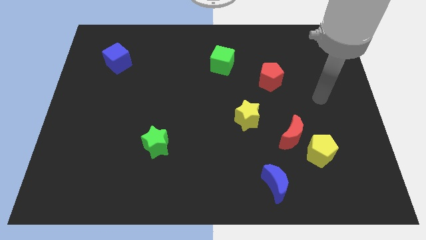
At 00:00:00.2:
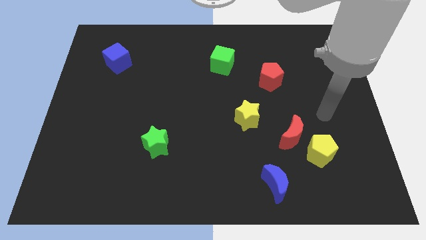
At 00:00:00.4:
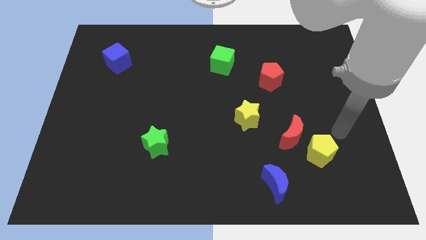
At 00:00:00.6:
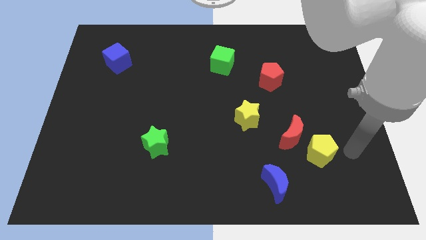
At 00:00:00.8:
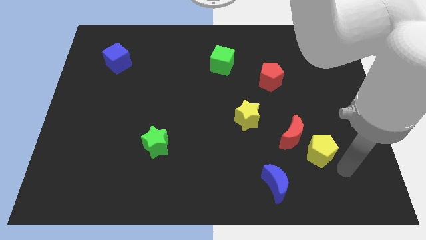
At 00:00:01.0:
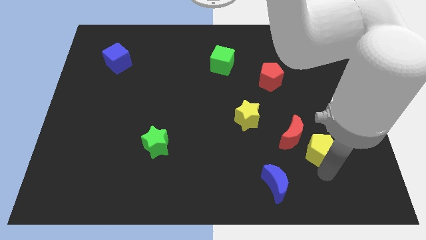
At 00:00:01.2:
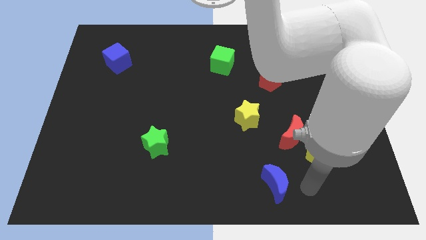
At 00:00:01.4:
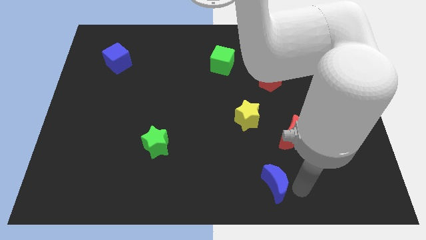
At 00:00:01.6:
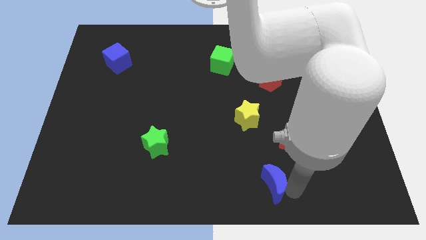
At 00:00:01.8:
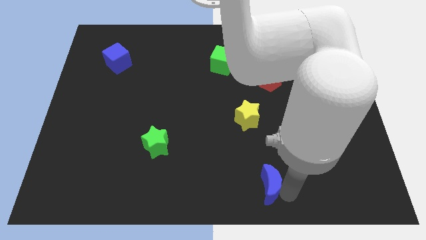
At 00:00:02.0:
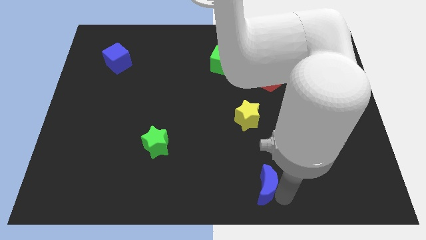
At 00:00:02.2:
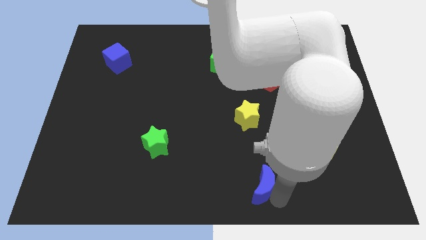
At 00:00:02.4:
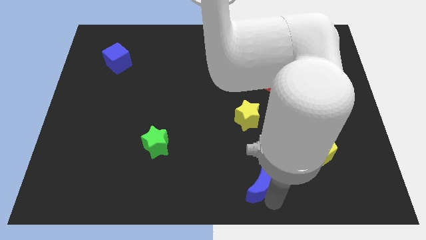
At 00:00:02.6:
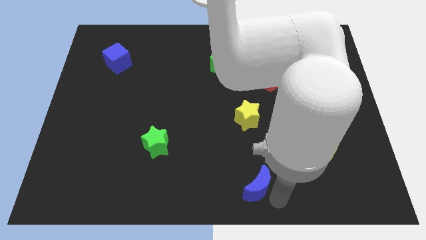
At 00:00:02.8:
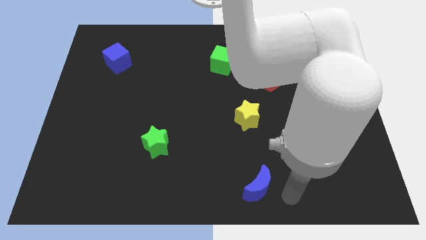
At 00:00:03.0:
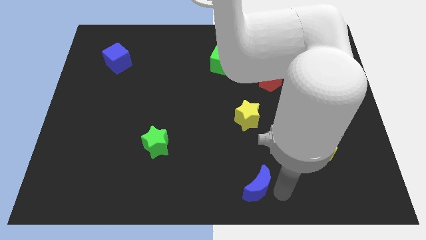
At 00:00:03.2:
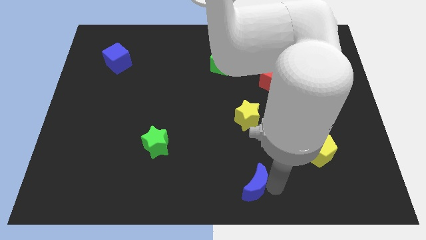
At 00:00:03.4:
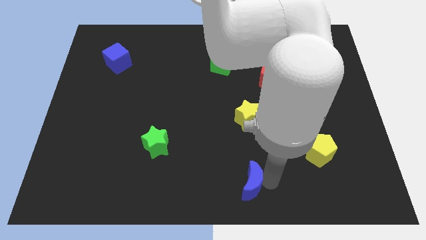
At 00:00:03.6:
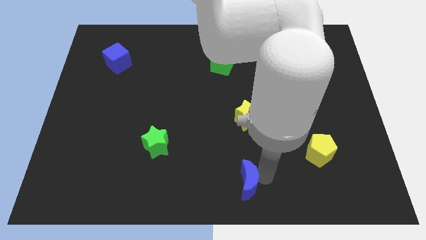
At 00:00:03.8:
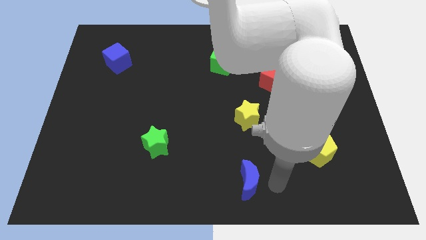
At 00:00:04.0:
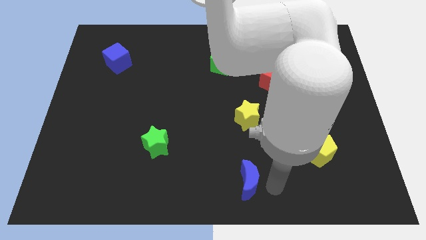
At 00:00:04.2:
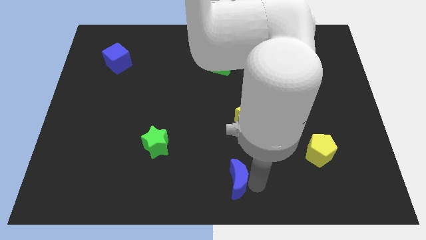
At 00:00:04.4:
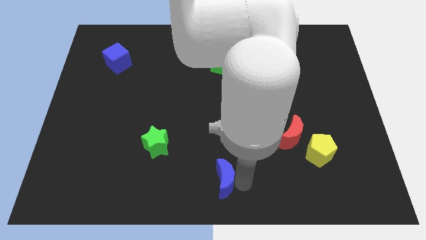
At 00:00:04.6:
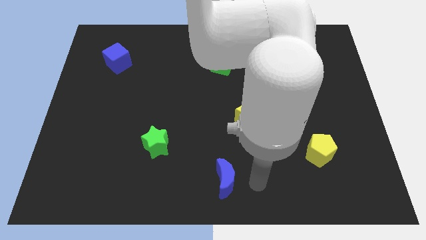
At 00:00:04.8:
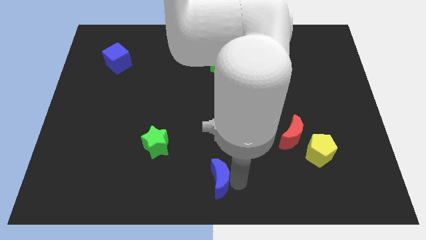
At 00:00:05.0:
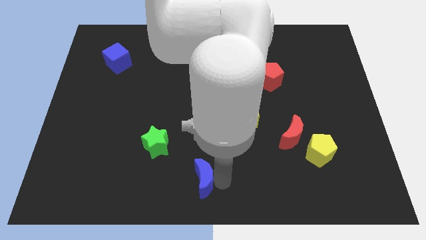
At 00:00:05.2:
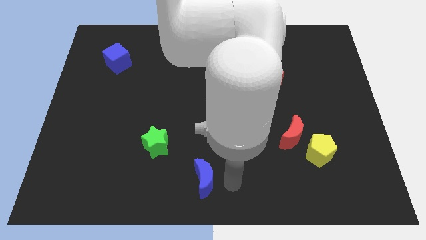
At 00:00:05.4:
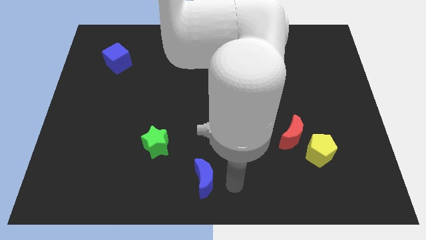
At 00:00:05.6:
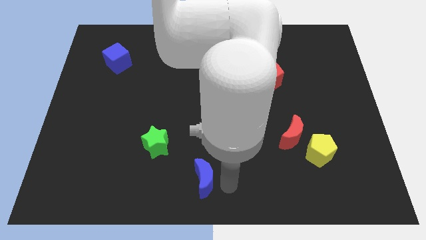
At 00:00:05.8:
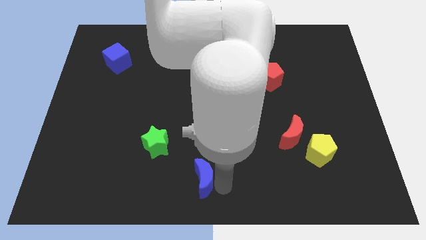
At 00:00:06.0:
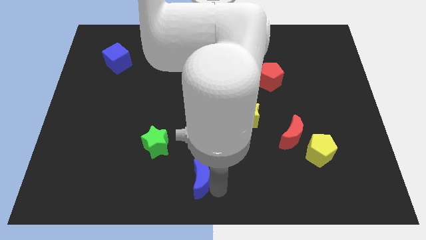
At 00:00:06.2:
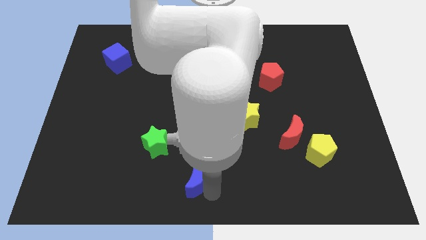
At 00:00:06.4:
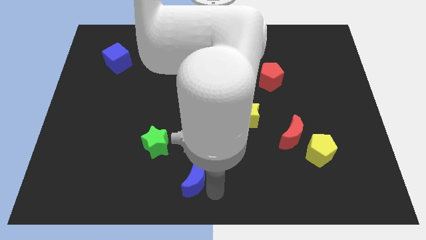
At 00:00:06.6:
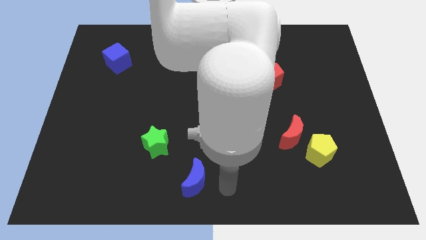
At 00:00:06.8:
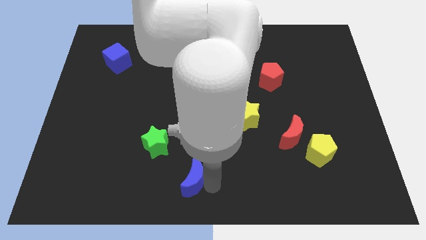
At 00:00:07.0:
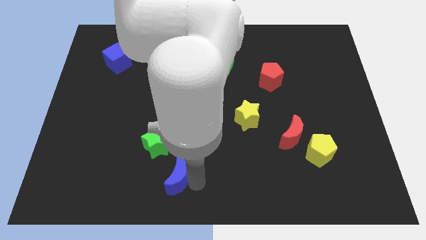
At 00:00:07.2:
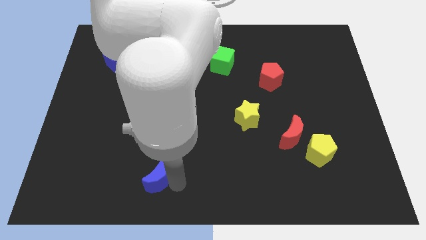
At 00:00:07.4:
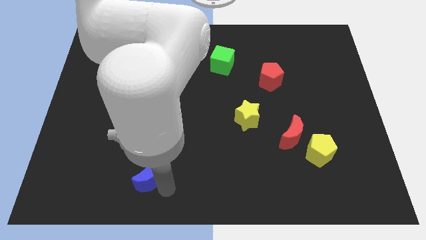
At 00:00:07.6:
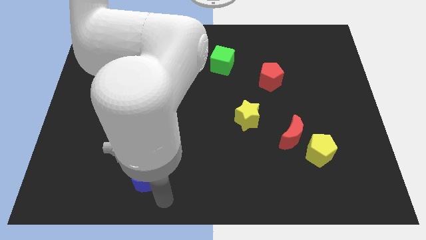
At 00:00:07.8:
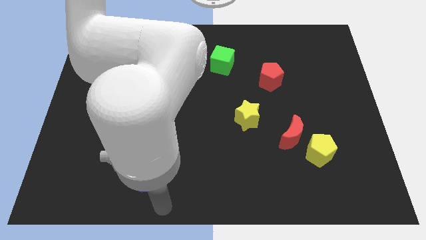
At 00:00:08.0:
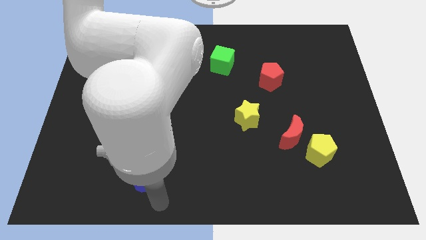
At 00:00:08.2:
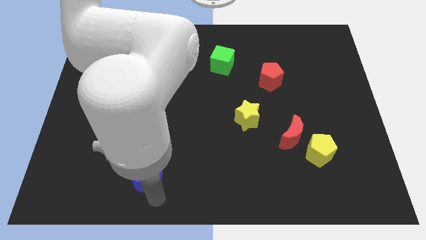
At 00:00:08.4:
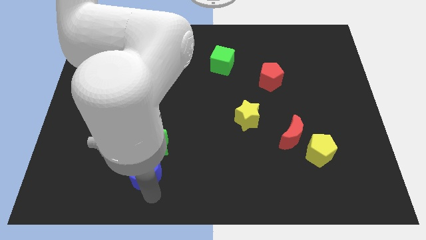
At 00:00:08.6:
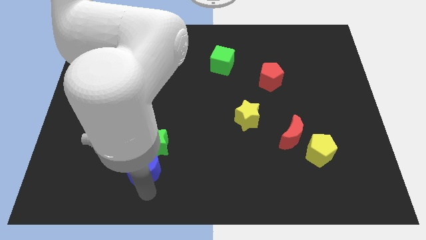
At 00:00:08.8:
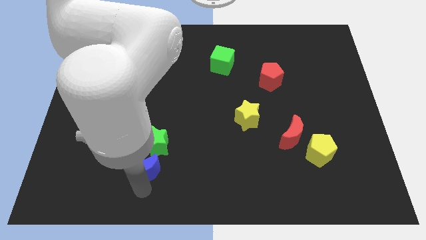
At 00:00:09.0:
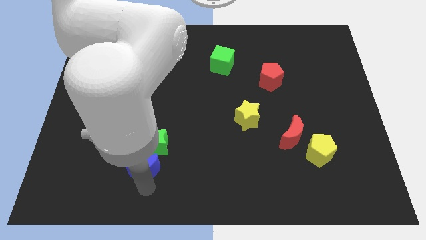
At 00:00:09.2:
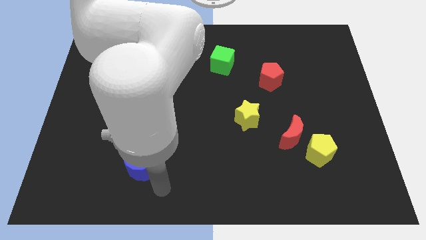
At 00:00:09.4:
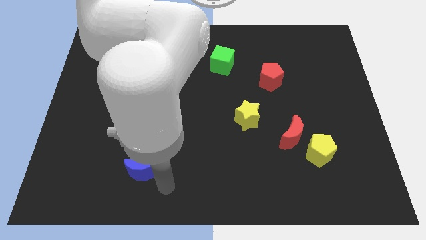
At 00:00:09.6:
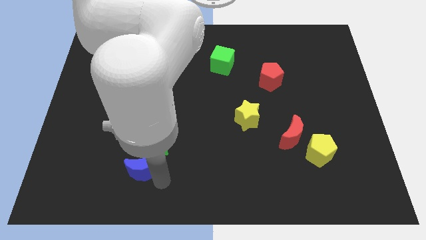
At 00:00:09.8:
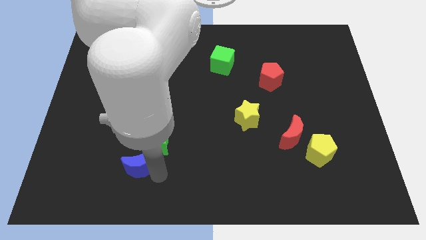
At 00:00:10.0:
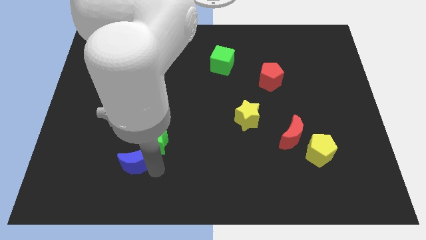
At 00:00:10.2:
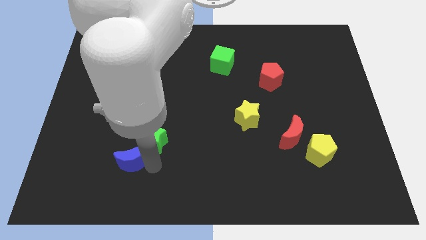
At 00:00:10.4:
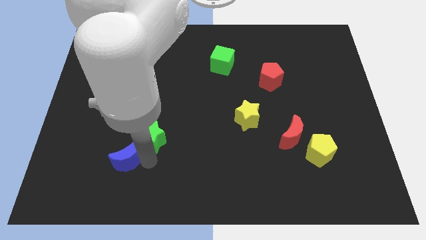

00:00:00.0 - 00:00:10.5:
put the blue moon left of the green star

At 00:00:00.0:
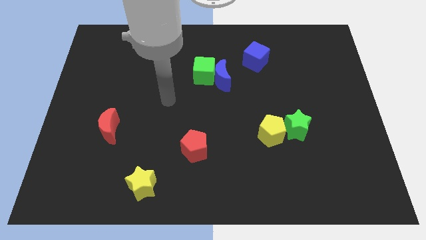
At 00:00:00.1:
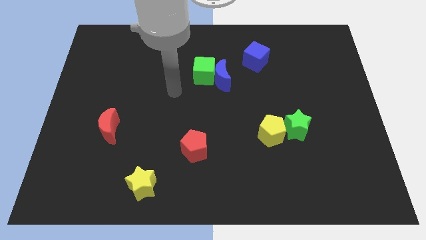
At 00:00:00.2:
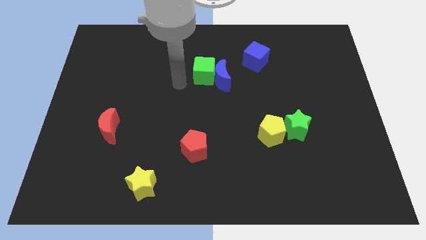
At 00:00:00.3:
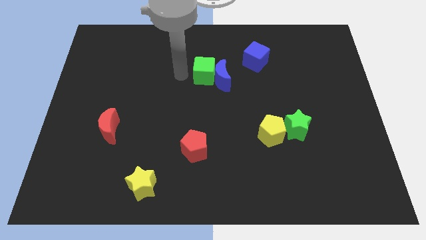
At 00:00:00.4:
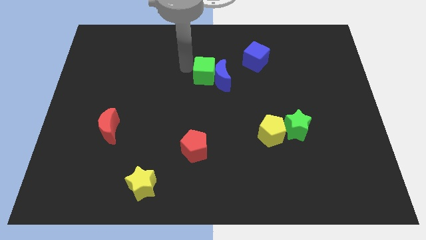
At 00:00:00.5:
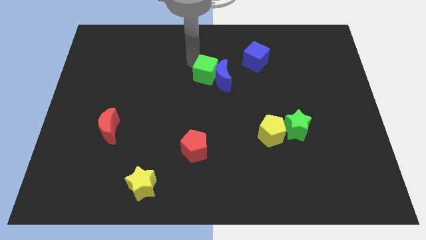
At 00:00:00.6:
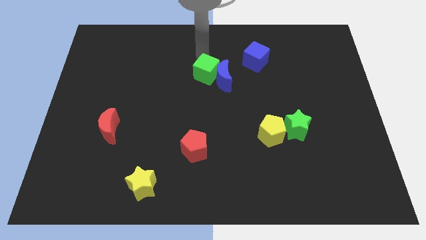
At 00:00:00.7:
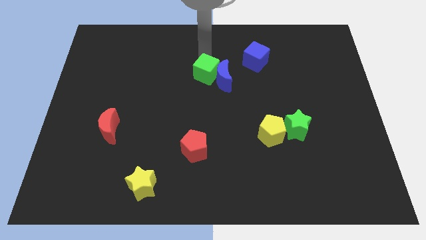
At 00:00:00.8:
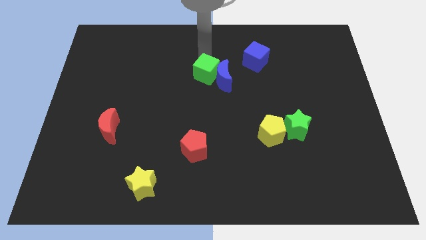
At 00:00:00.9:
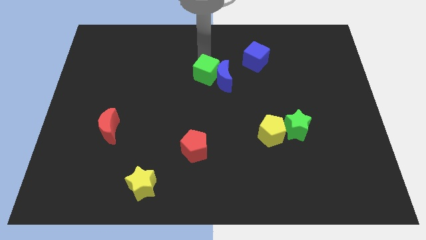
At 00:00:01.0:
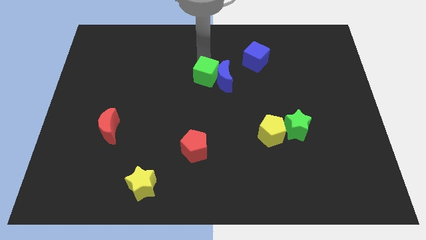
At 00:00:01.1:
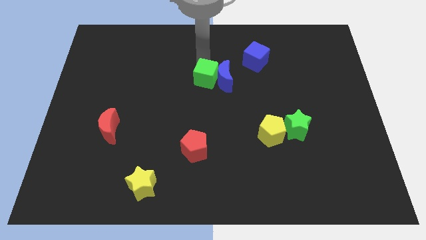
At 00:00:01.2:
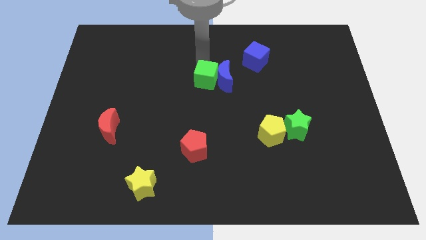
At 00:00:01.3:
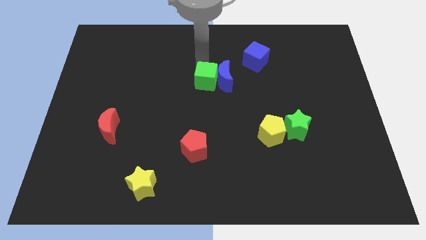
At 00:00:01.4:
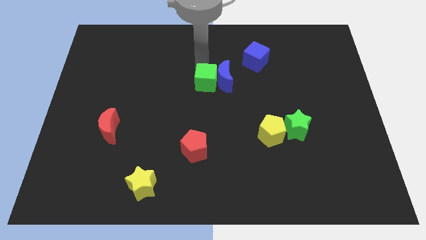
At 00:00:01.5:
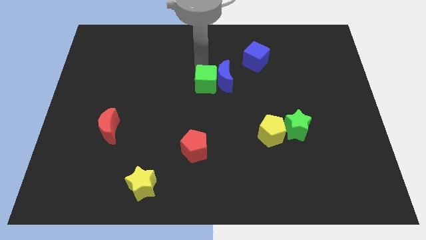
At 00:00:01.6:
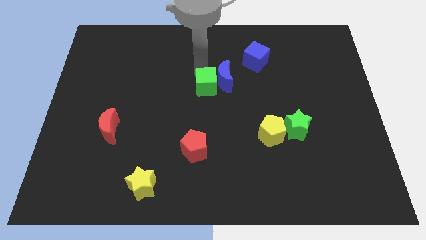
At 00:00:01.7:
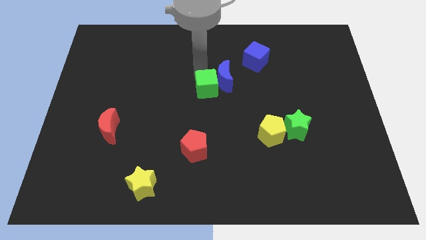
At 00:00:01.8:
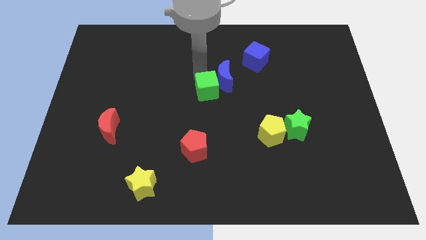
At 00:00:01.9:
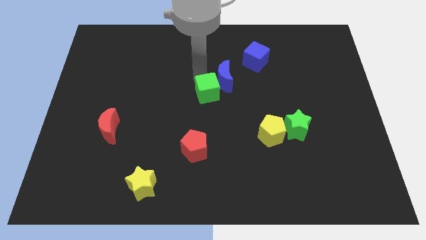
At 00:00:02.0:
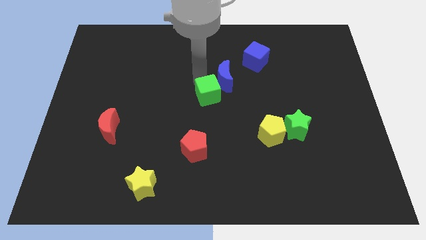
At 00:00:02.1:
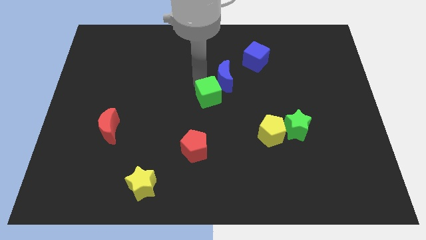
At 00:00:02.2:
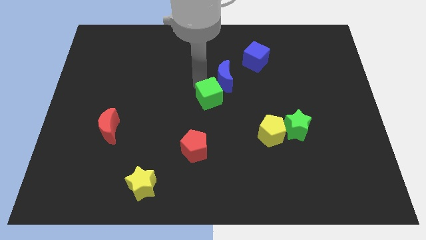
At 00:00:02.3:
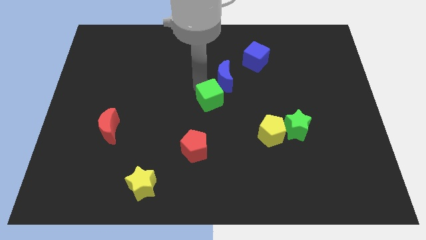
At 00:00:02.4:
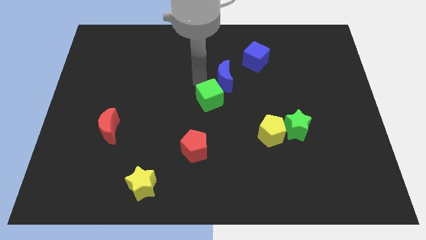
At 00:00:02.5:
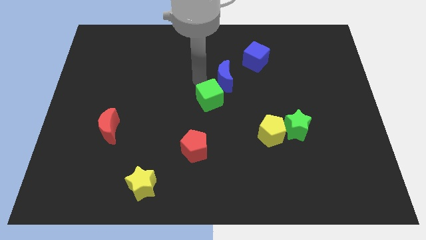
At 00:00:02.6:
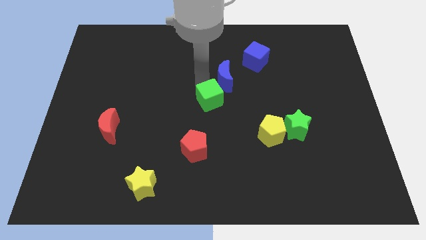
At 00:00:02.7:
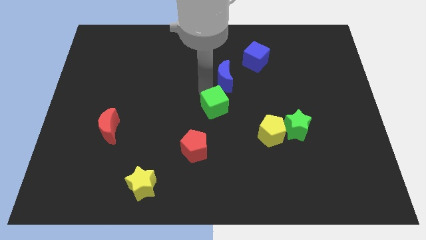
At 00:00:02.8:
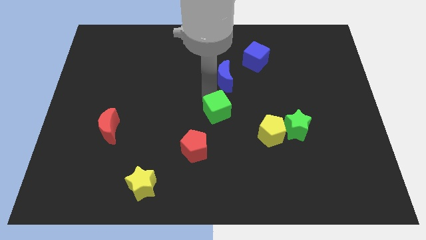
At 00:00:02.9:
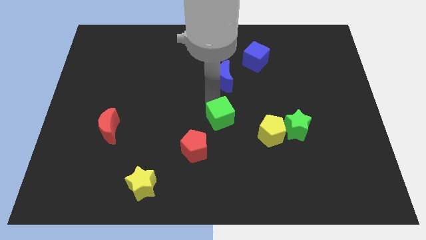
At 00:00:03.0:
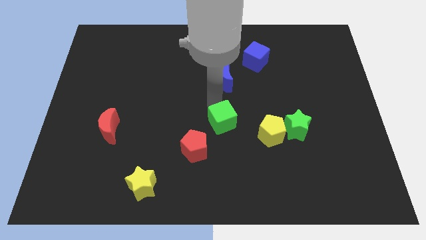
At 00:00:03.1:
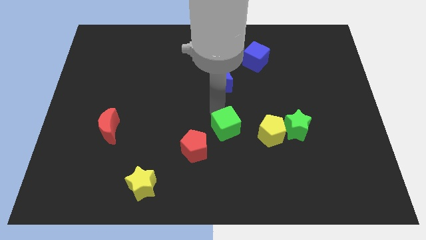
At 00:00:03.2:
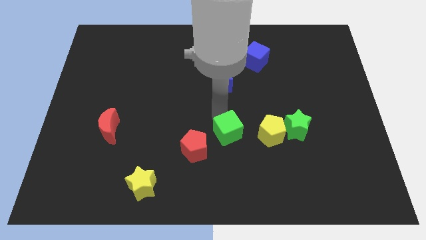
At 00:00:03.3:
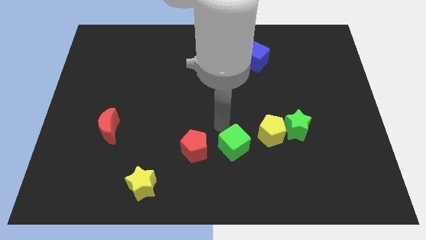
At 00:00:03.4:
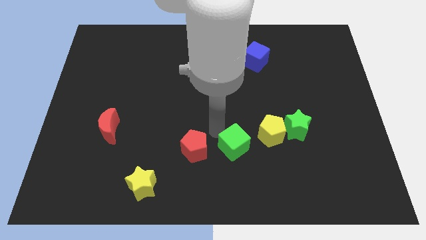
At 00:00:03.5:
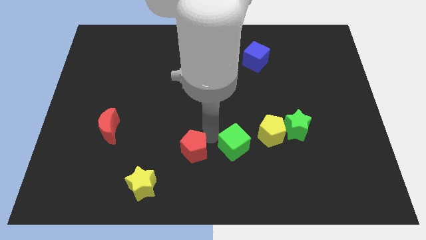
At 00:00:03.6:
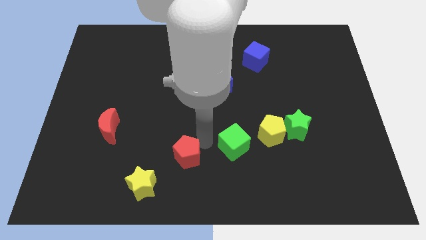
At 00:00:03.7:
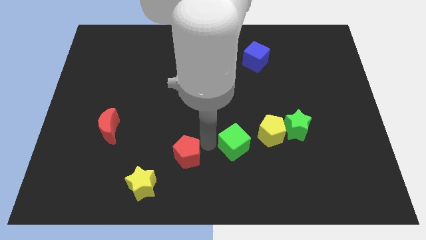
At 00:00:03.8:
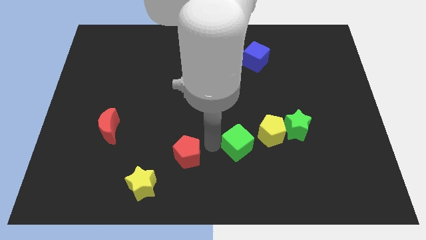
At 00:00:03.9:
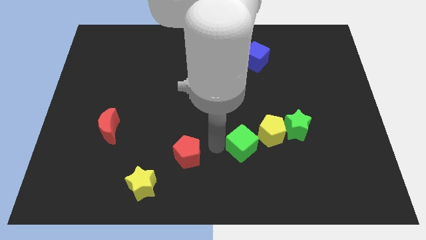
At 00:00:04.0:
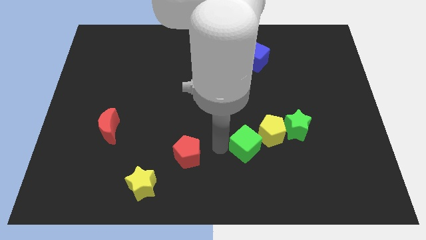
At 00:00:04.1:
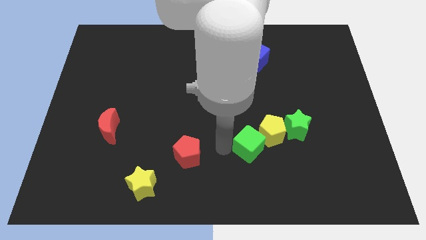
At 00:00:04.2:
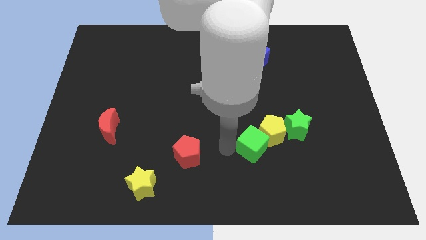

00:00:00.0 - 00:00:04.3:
push the green cube to the bottom left side of the green star
